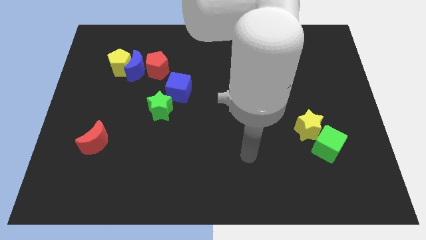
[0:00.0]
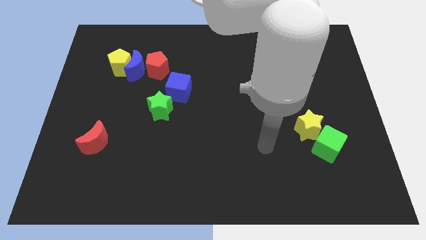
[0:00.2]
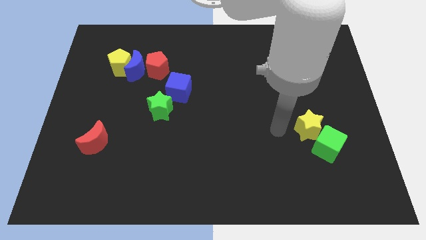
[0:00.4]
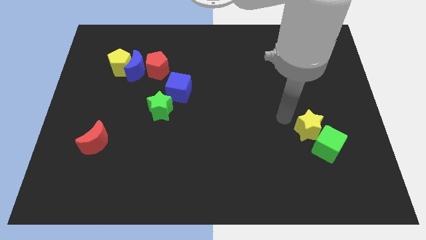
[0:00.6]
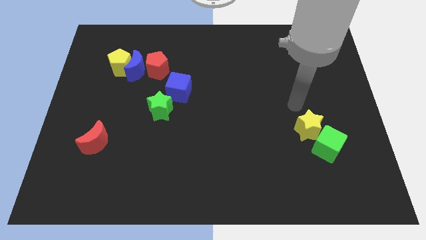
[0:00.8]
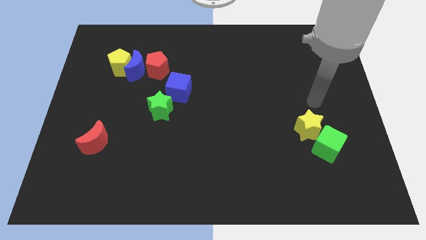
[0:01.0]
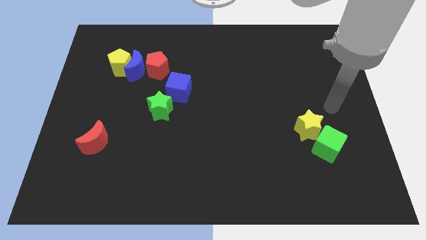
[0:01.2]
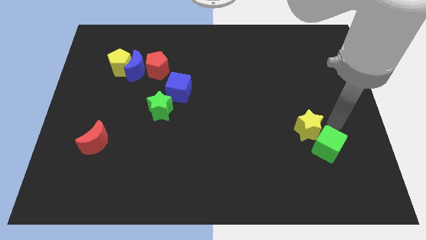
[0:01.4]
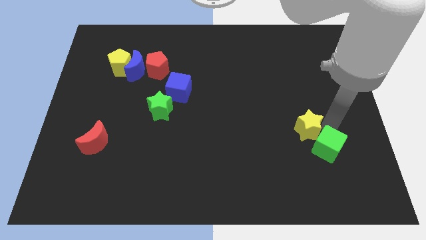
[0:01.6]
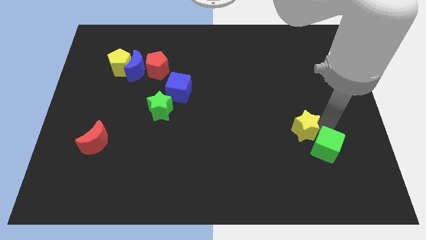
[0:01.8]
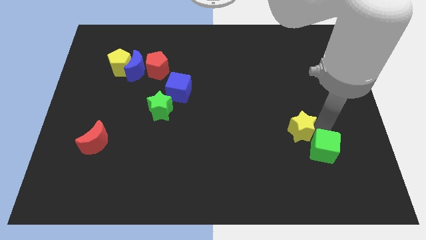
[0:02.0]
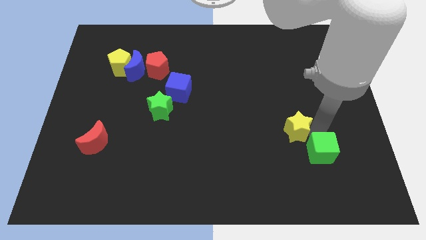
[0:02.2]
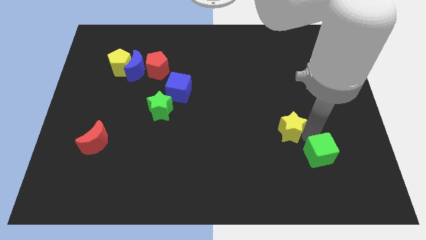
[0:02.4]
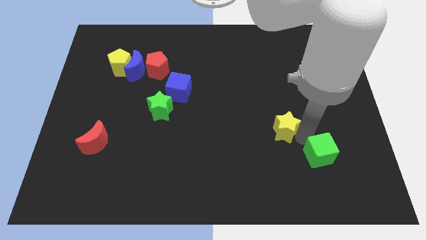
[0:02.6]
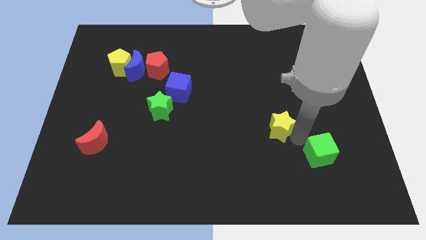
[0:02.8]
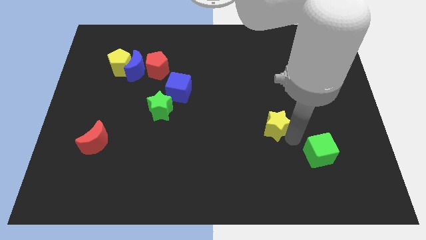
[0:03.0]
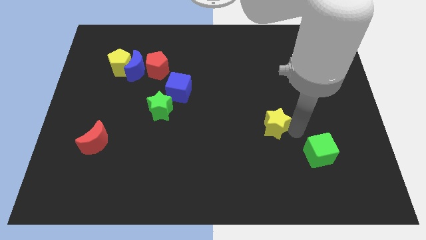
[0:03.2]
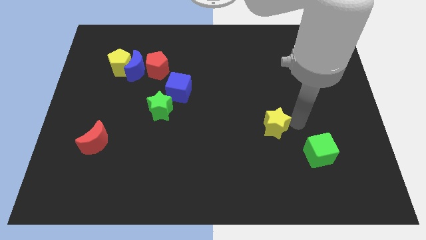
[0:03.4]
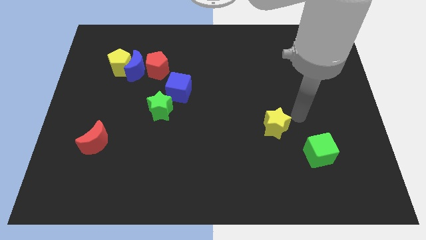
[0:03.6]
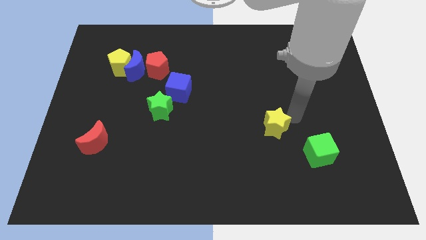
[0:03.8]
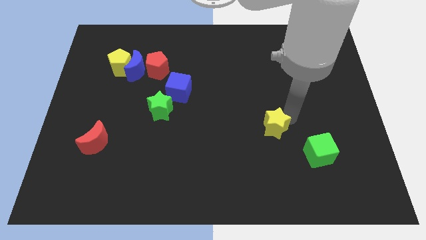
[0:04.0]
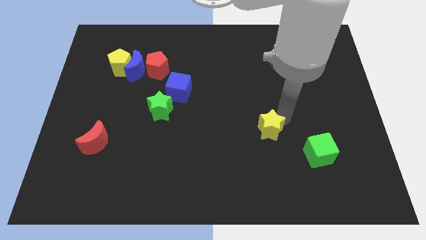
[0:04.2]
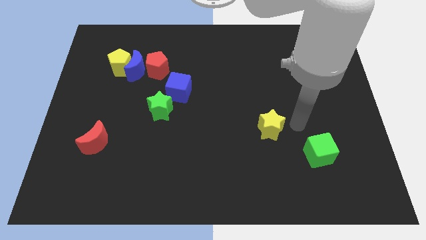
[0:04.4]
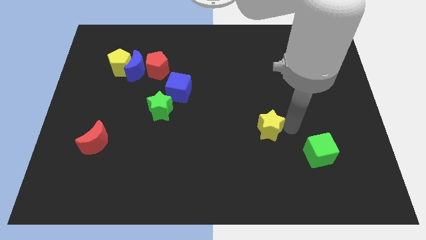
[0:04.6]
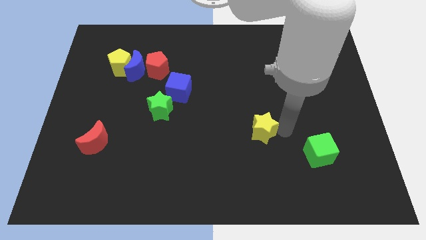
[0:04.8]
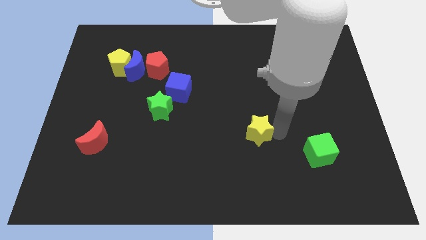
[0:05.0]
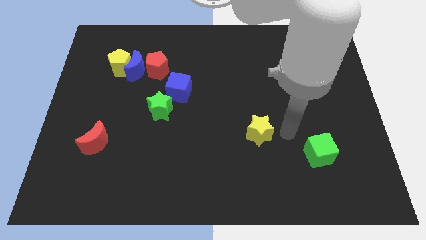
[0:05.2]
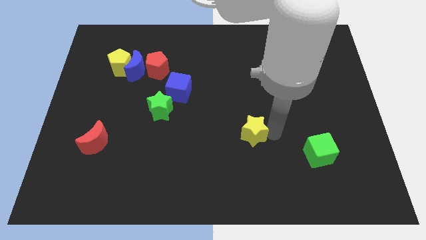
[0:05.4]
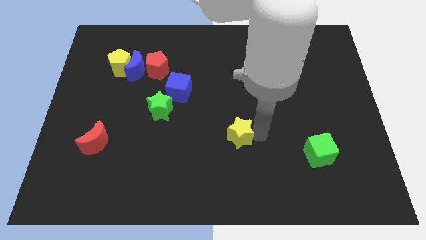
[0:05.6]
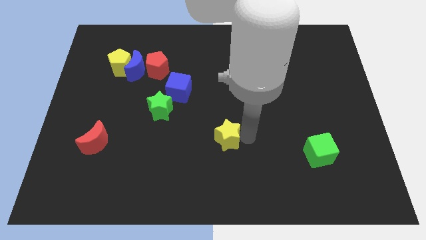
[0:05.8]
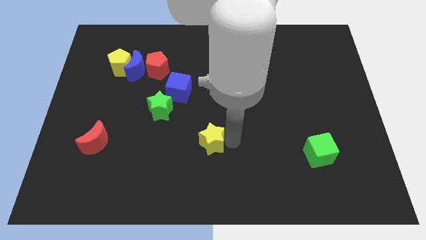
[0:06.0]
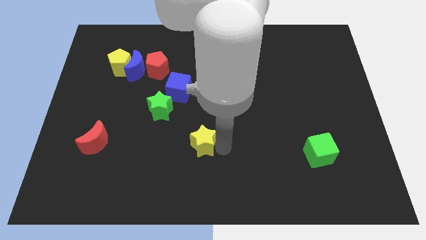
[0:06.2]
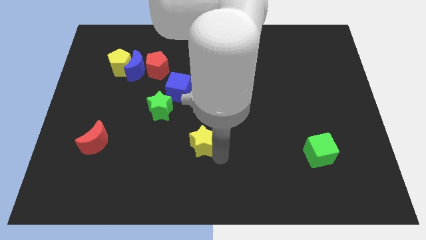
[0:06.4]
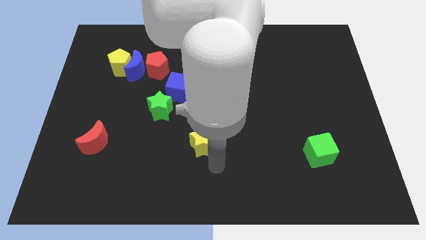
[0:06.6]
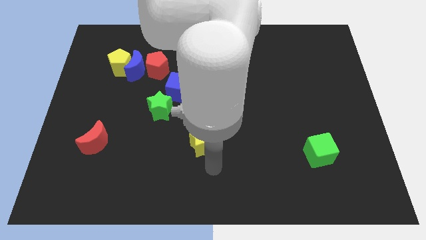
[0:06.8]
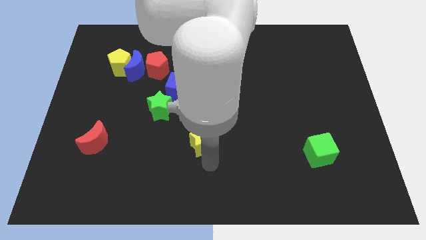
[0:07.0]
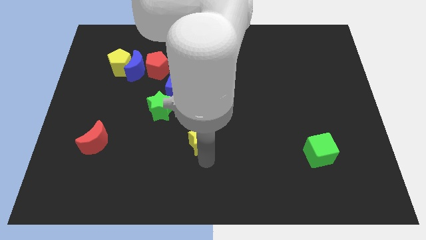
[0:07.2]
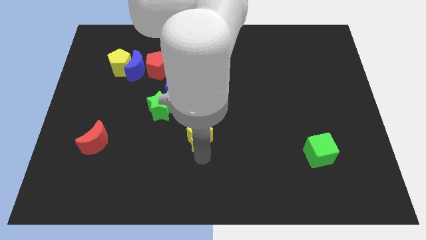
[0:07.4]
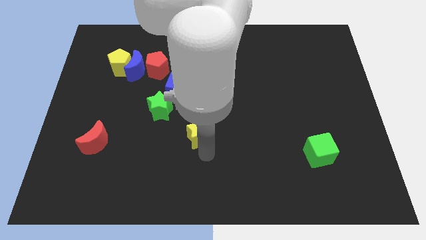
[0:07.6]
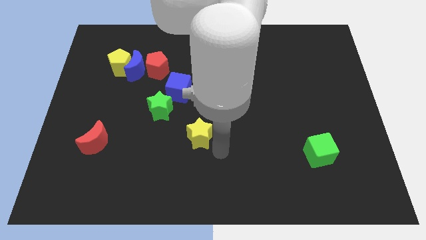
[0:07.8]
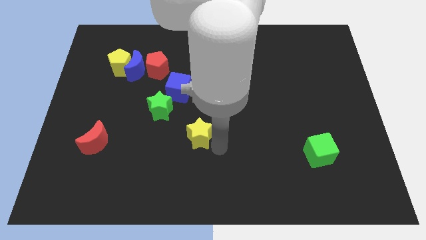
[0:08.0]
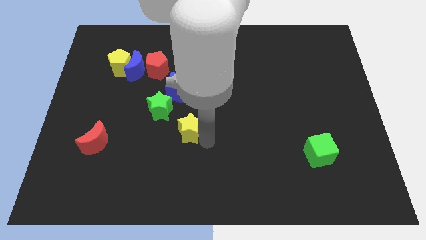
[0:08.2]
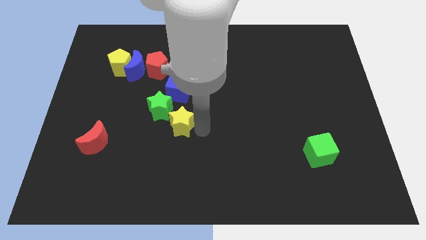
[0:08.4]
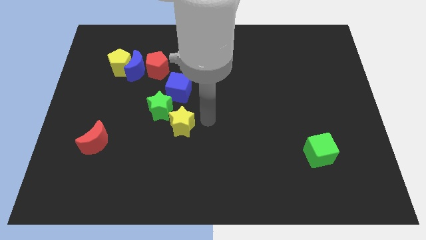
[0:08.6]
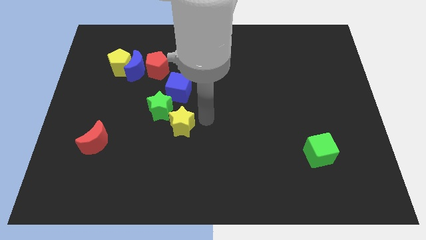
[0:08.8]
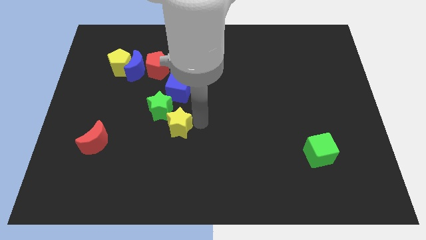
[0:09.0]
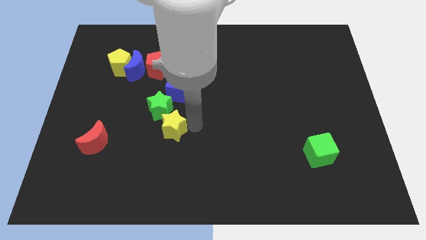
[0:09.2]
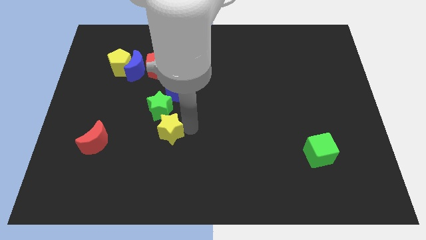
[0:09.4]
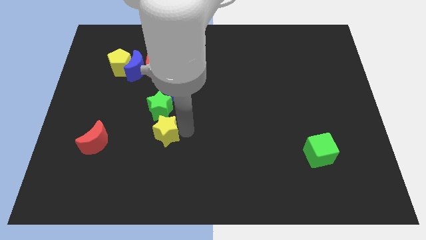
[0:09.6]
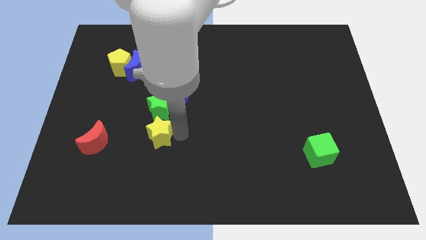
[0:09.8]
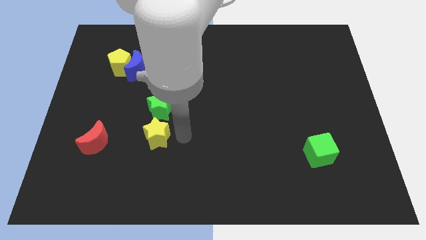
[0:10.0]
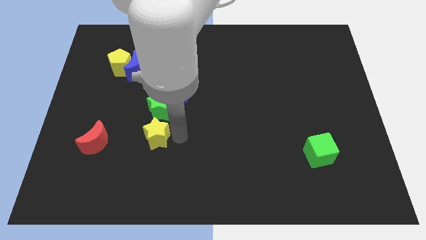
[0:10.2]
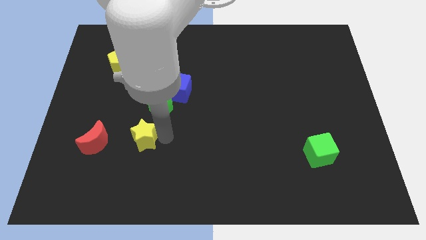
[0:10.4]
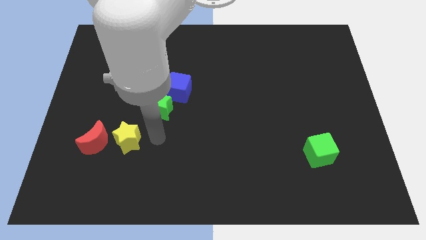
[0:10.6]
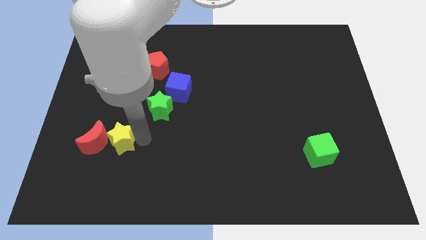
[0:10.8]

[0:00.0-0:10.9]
put the yellow star next to the red moon

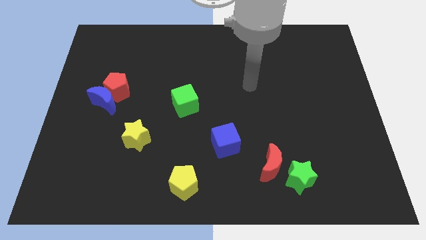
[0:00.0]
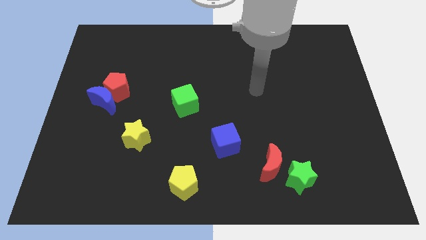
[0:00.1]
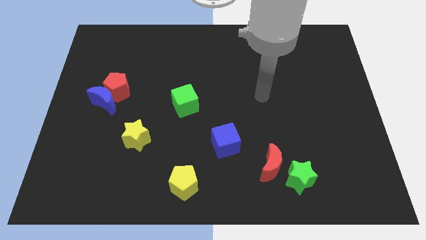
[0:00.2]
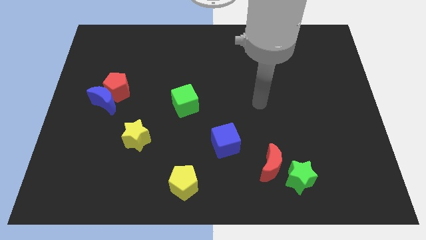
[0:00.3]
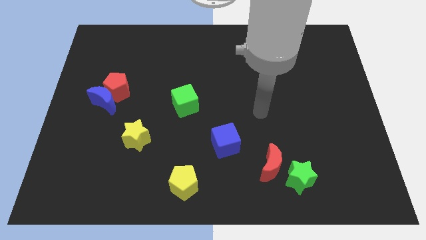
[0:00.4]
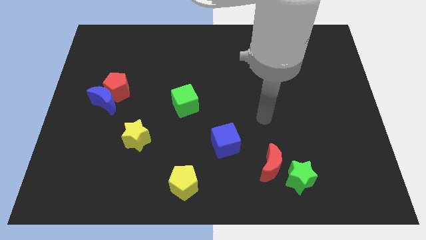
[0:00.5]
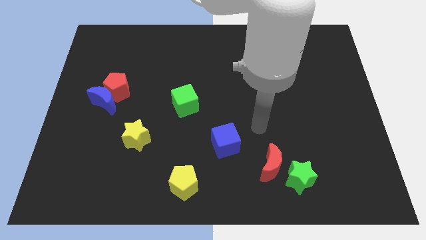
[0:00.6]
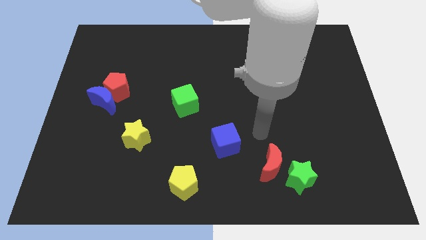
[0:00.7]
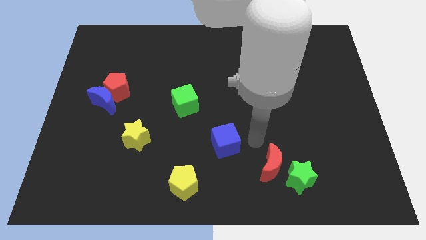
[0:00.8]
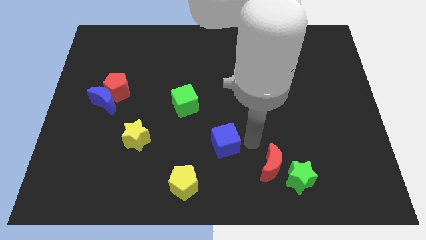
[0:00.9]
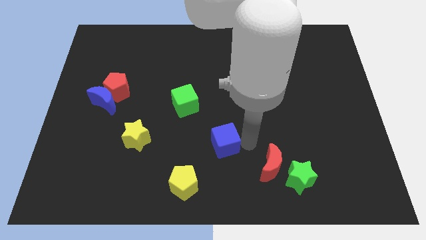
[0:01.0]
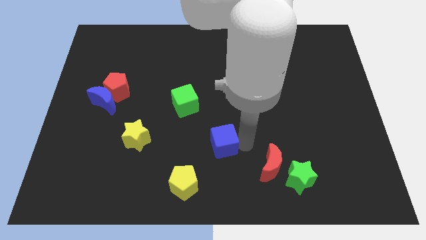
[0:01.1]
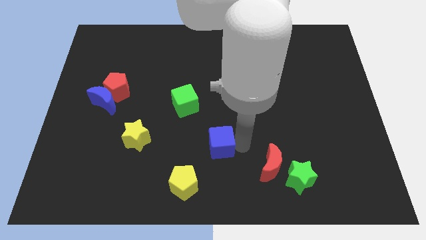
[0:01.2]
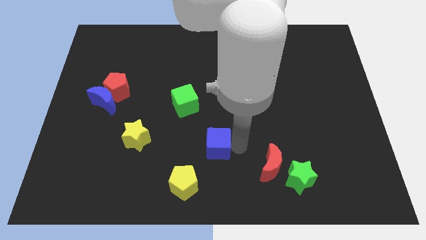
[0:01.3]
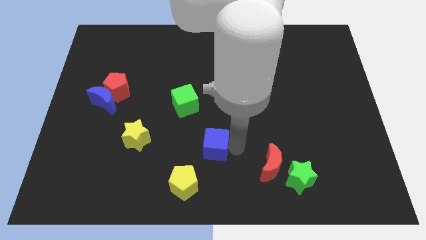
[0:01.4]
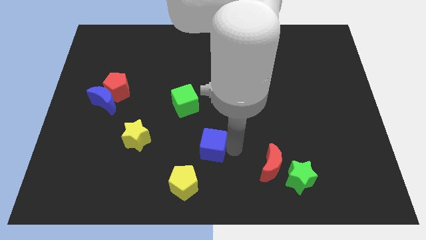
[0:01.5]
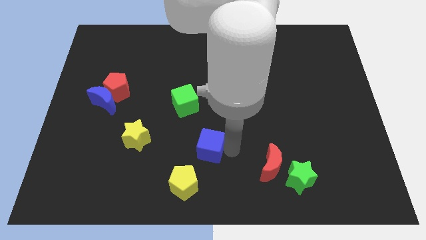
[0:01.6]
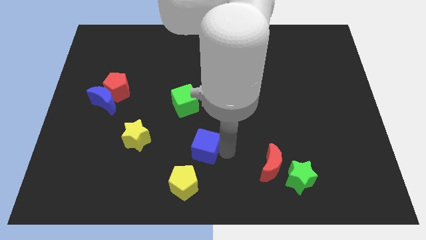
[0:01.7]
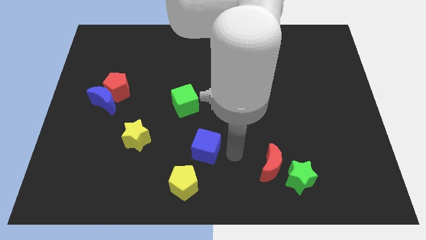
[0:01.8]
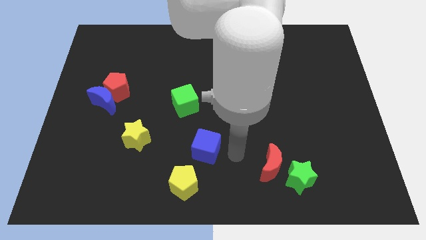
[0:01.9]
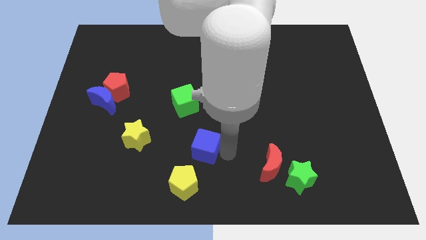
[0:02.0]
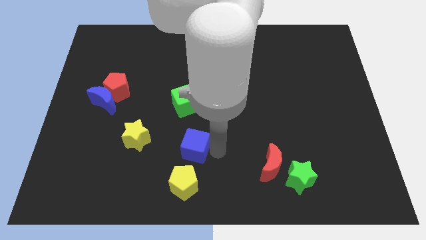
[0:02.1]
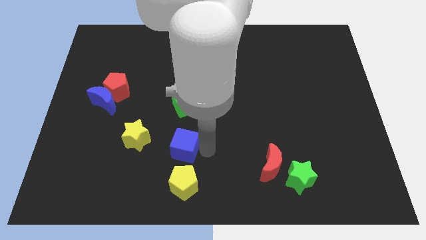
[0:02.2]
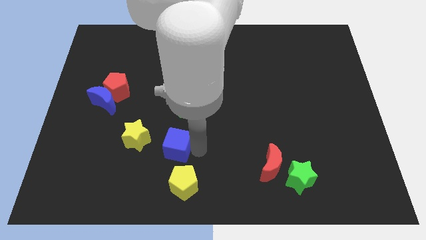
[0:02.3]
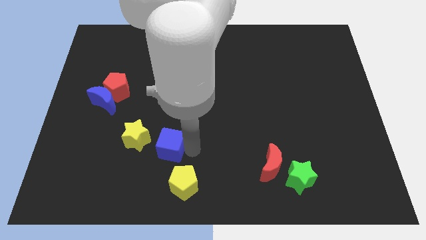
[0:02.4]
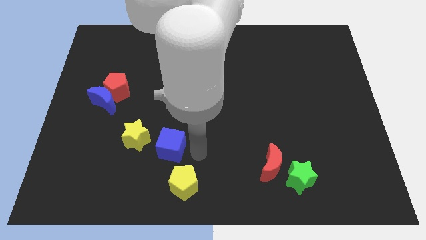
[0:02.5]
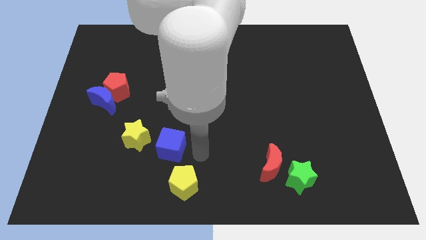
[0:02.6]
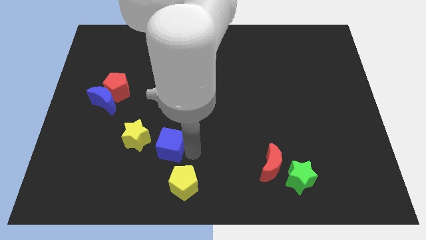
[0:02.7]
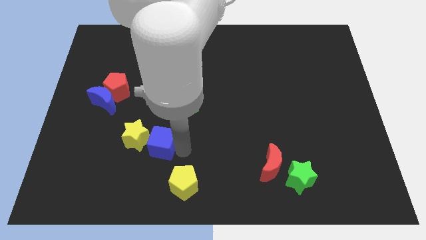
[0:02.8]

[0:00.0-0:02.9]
push the blue cube close to the yellow star
